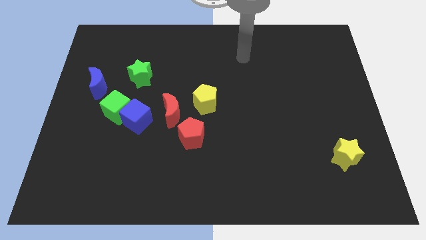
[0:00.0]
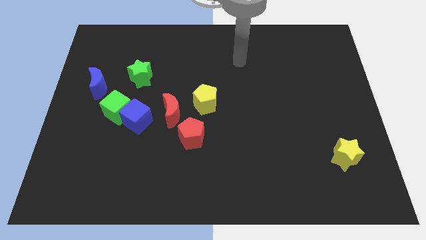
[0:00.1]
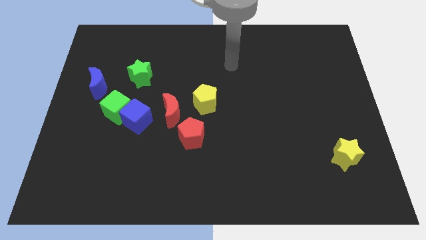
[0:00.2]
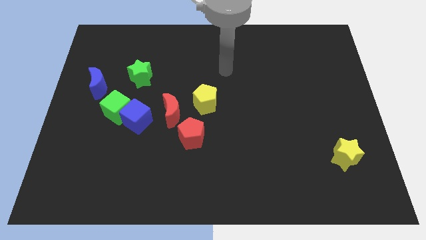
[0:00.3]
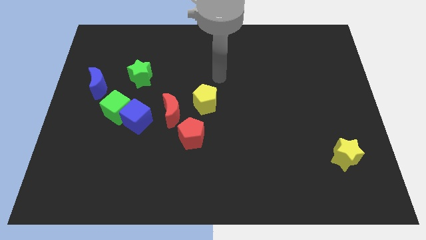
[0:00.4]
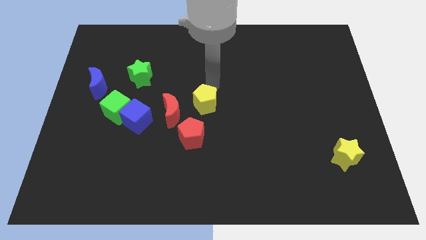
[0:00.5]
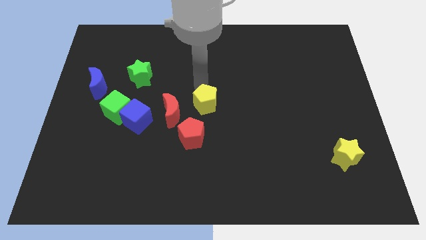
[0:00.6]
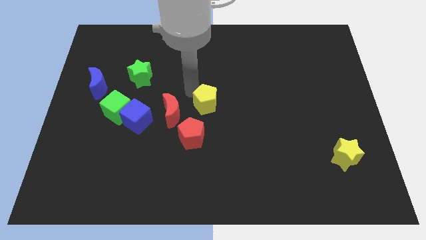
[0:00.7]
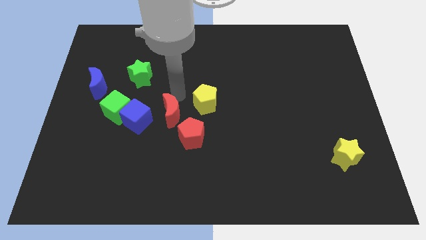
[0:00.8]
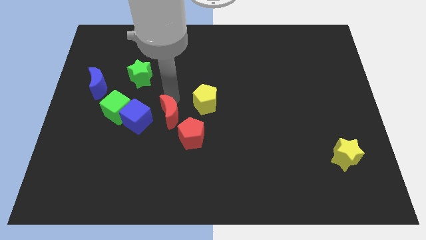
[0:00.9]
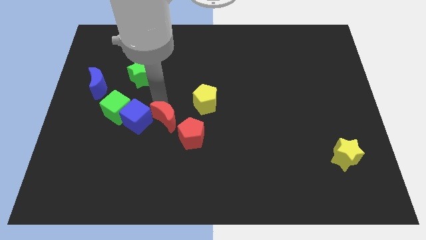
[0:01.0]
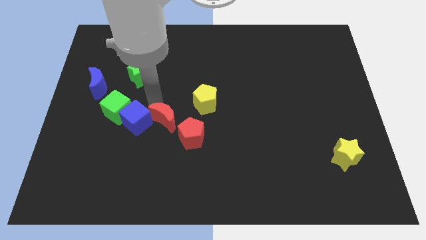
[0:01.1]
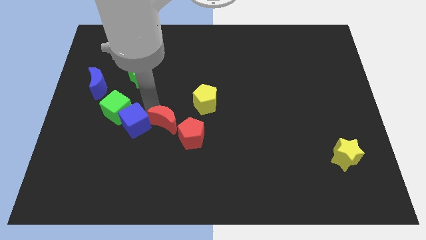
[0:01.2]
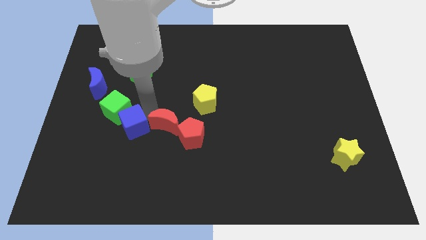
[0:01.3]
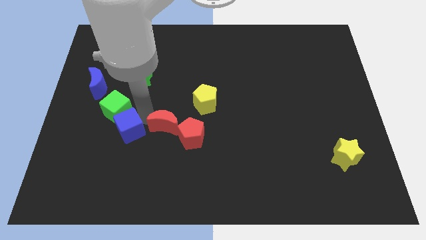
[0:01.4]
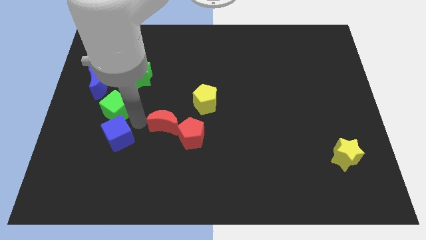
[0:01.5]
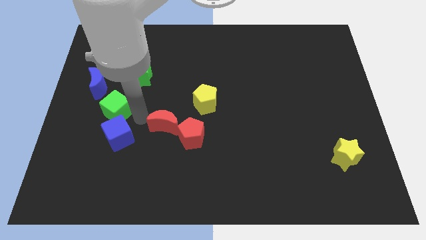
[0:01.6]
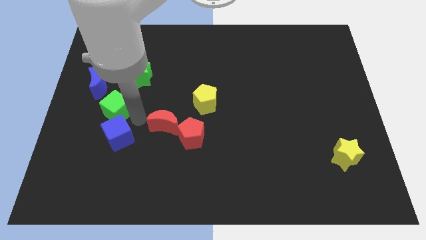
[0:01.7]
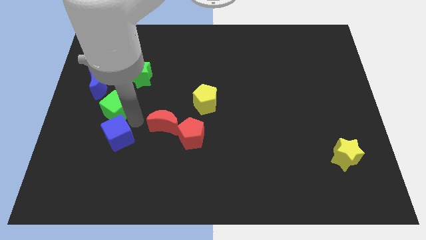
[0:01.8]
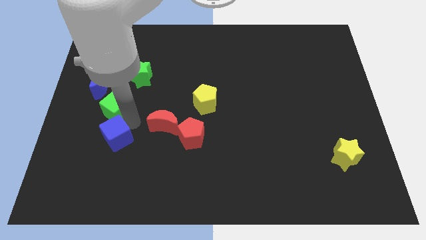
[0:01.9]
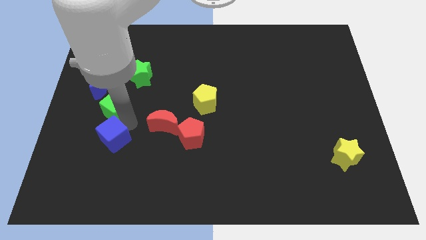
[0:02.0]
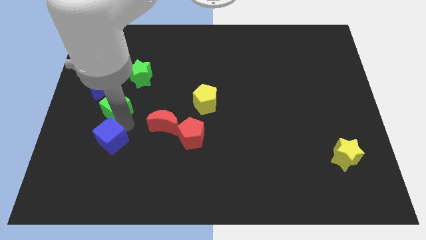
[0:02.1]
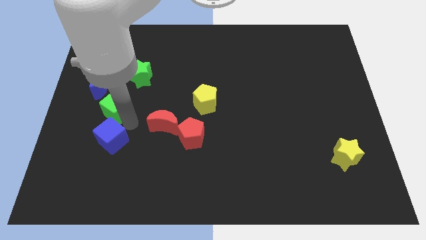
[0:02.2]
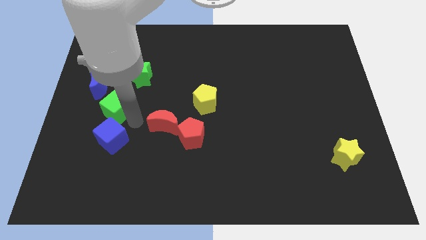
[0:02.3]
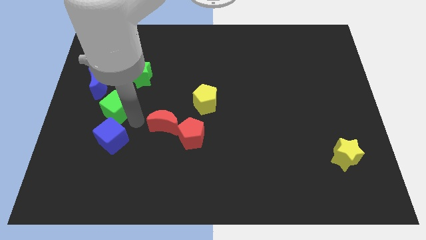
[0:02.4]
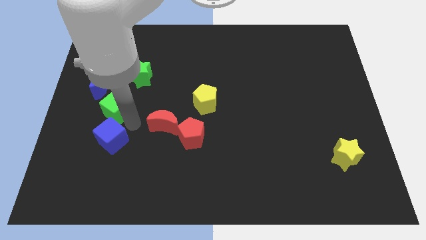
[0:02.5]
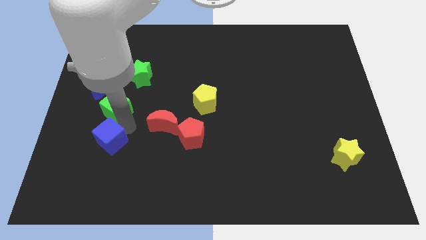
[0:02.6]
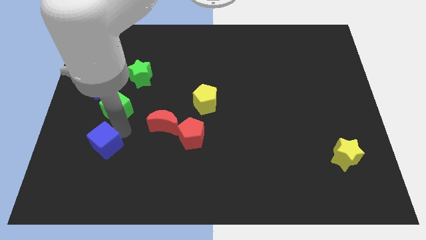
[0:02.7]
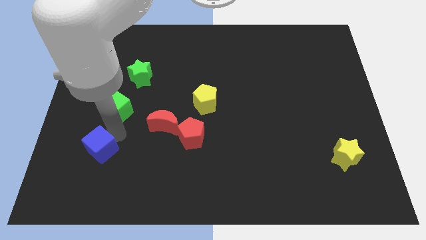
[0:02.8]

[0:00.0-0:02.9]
separate the blue cube from the green cube and red moon

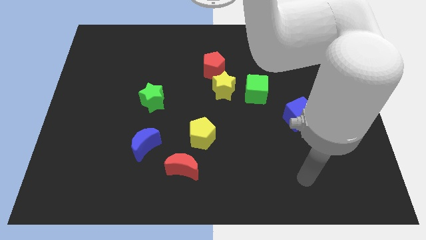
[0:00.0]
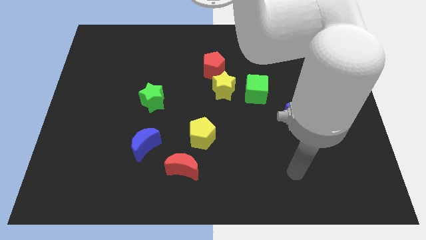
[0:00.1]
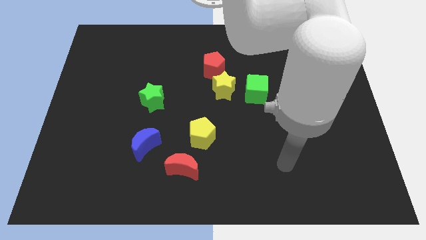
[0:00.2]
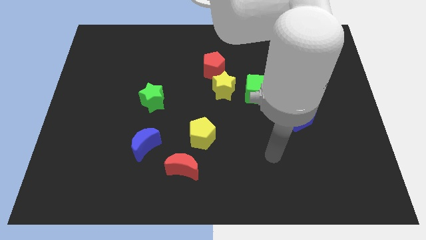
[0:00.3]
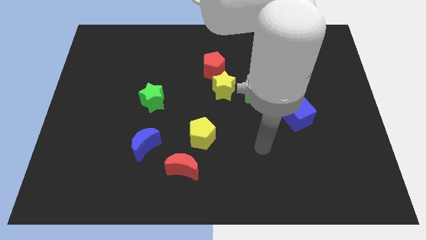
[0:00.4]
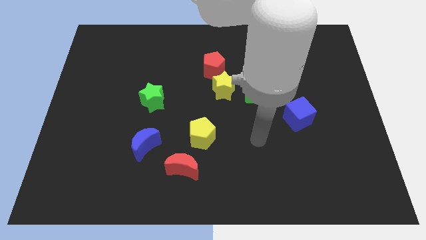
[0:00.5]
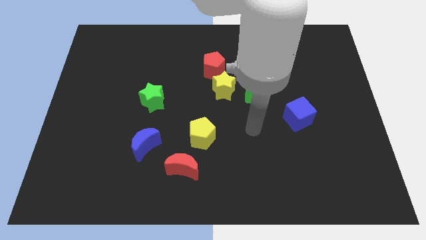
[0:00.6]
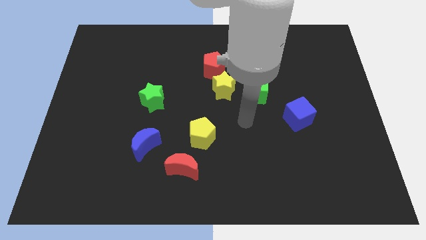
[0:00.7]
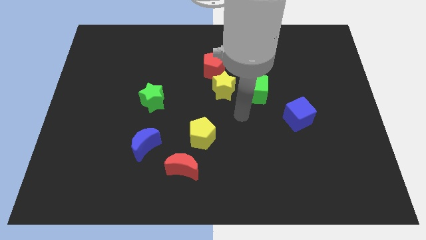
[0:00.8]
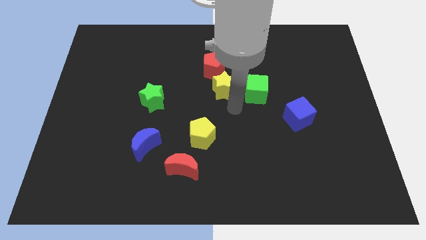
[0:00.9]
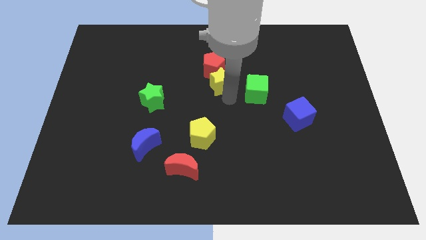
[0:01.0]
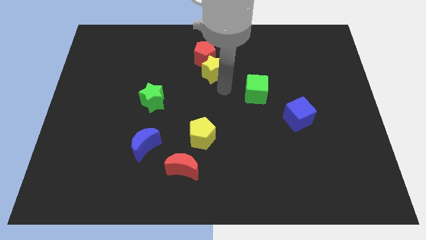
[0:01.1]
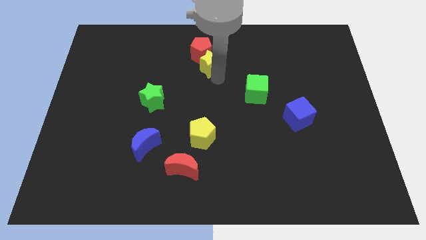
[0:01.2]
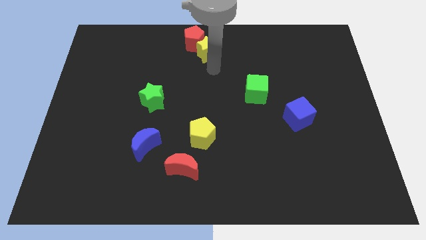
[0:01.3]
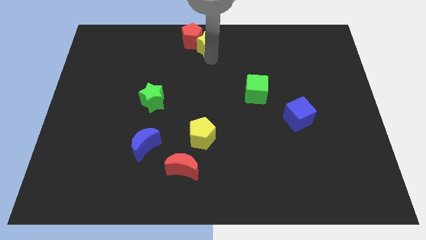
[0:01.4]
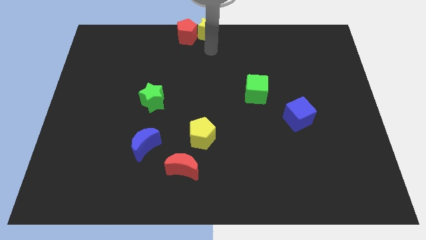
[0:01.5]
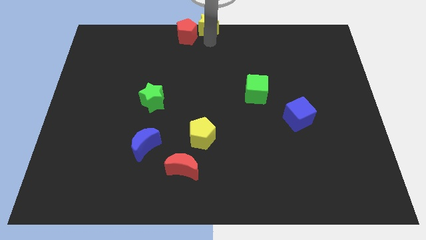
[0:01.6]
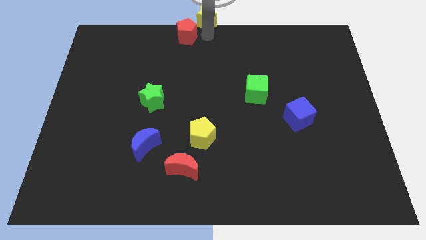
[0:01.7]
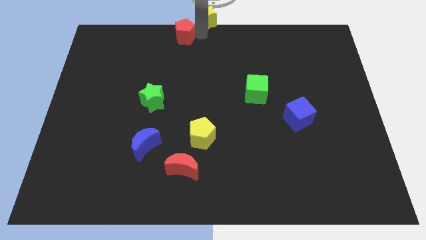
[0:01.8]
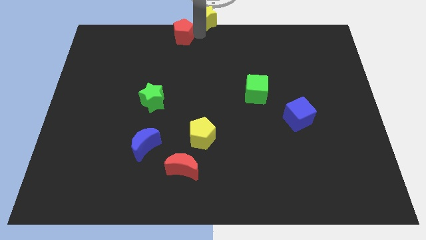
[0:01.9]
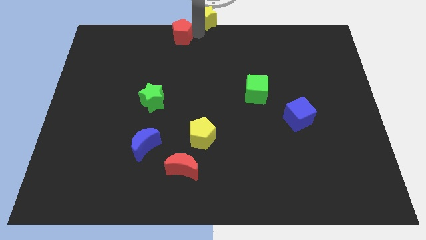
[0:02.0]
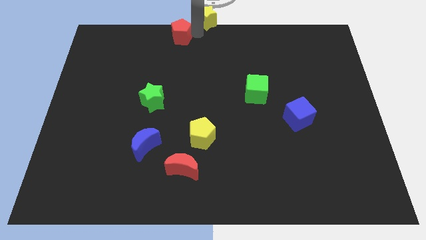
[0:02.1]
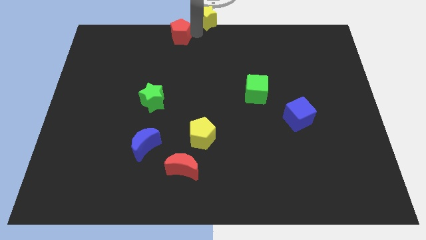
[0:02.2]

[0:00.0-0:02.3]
move the red pentagon away from the yellow star

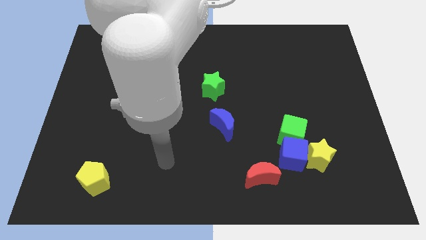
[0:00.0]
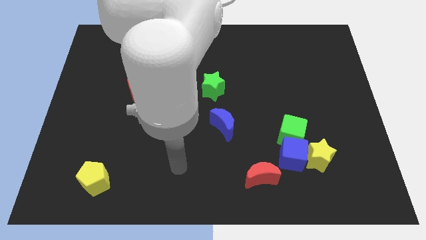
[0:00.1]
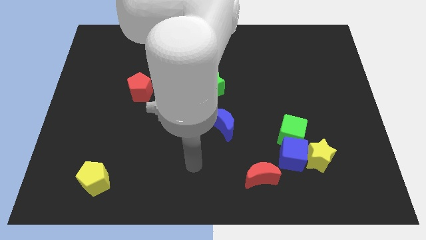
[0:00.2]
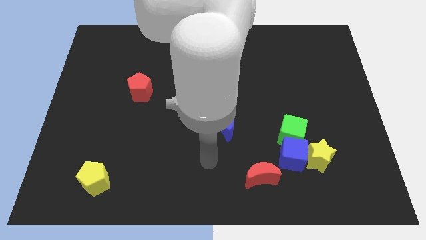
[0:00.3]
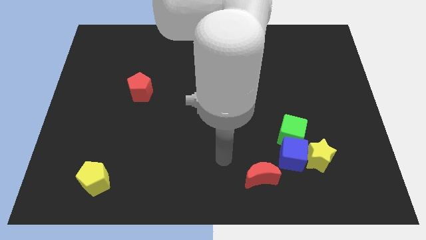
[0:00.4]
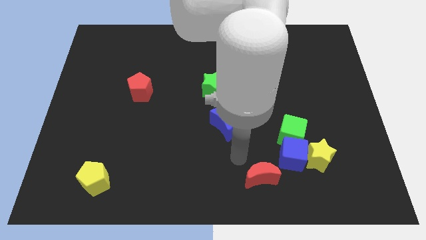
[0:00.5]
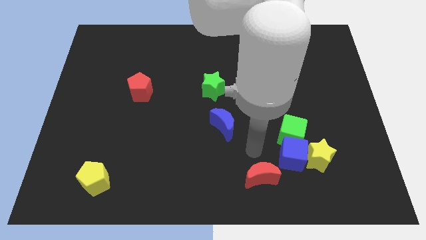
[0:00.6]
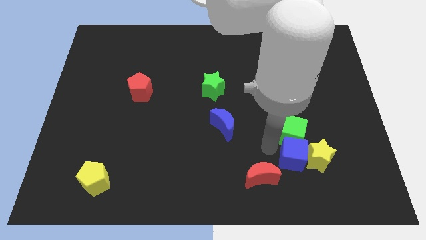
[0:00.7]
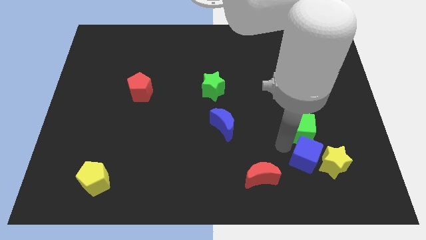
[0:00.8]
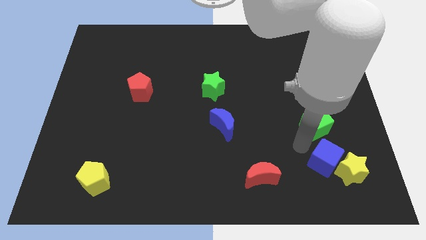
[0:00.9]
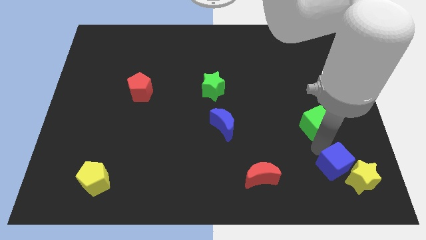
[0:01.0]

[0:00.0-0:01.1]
separate the yellow star from the blue cube and green cube

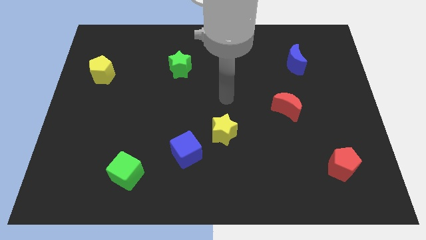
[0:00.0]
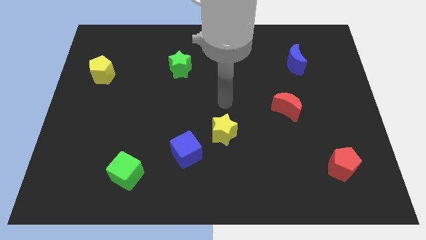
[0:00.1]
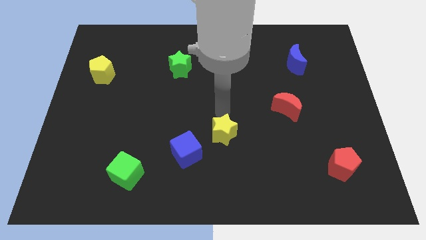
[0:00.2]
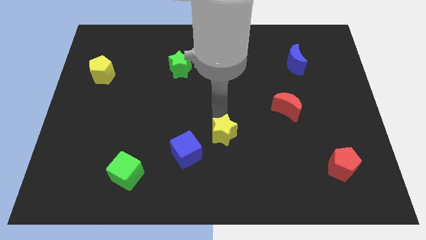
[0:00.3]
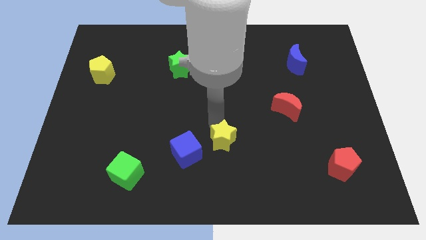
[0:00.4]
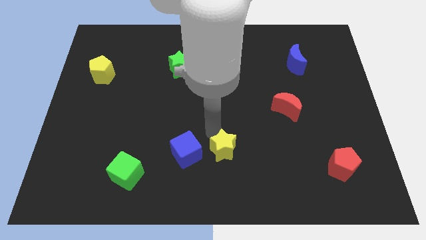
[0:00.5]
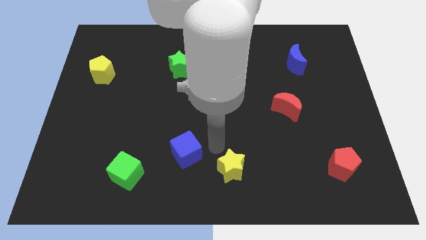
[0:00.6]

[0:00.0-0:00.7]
pull the blue cube apart from the yellow star

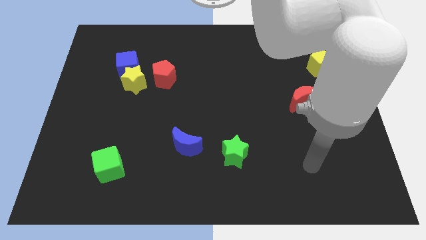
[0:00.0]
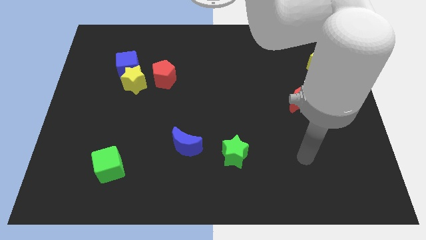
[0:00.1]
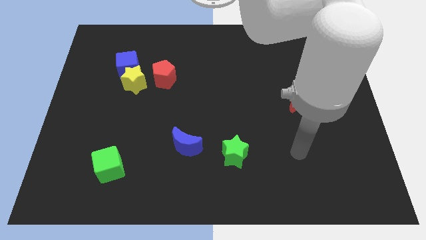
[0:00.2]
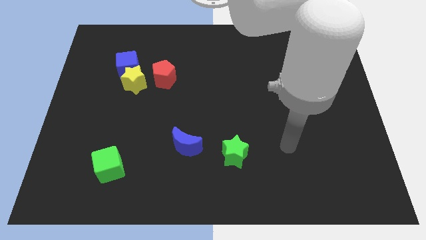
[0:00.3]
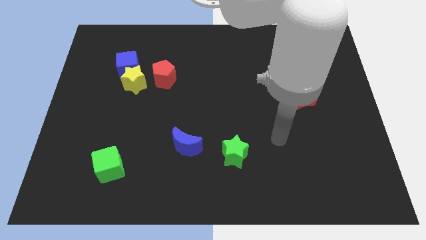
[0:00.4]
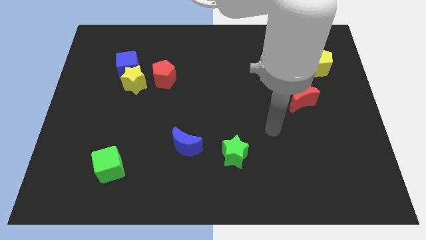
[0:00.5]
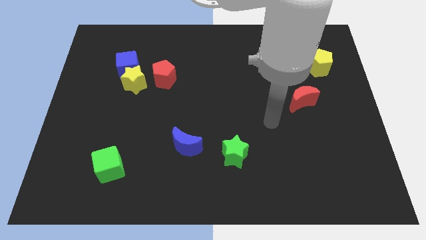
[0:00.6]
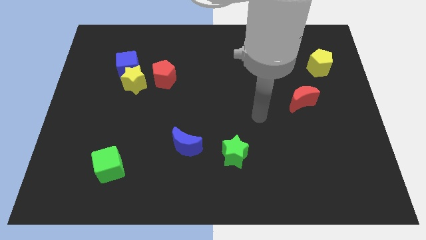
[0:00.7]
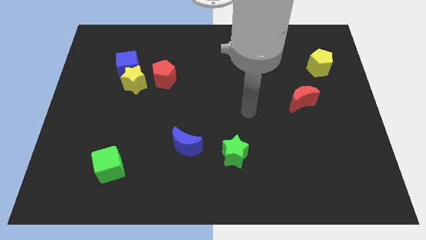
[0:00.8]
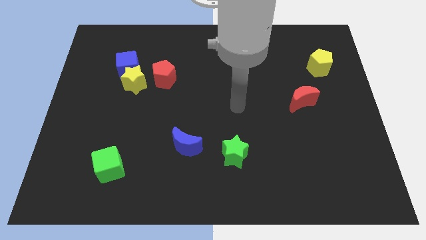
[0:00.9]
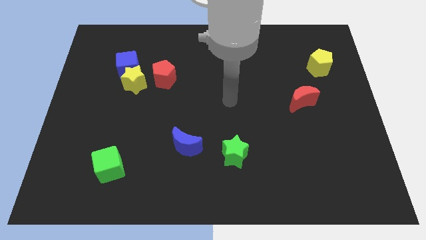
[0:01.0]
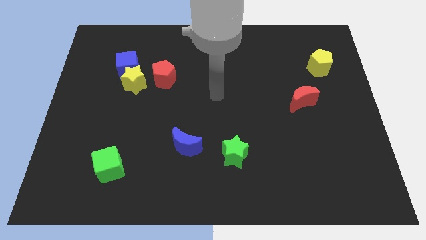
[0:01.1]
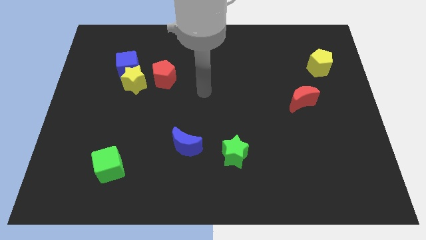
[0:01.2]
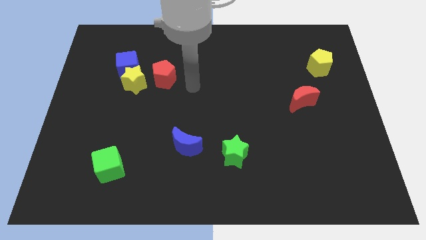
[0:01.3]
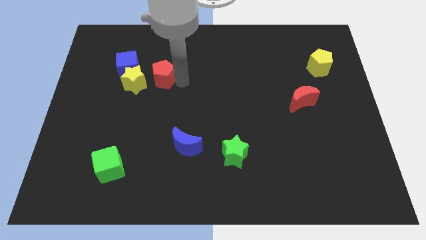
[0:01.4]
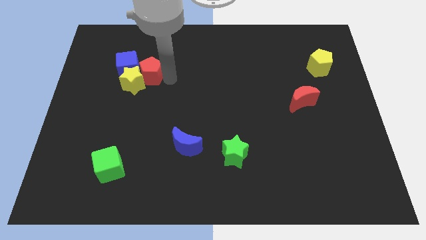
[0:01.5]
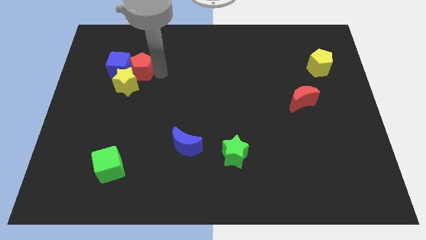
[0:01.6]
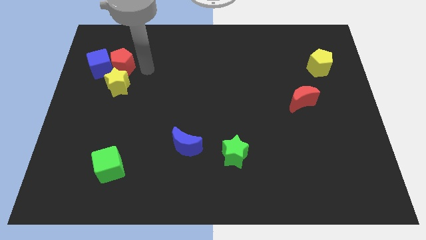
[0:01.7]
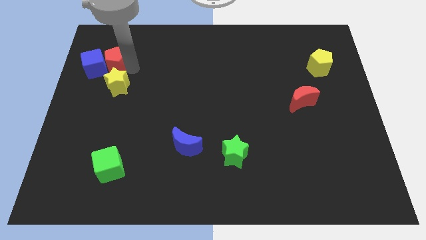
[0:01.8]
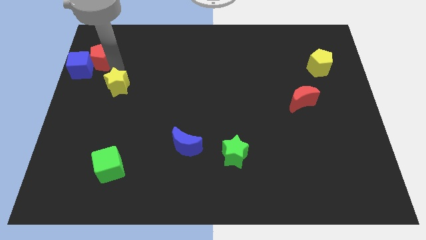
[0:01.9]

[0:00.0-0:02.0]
move the yellow star away from the blue cube and red pentagon

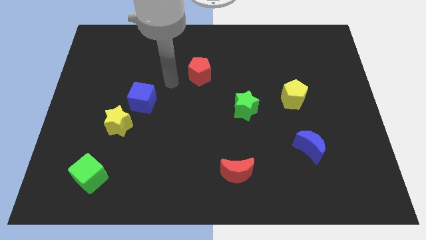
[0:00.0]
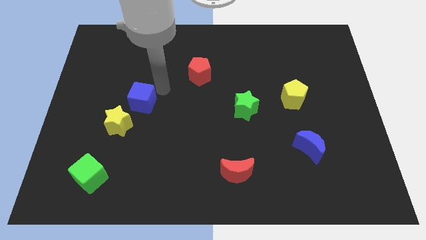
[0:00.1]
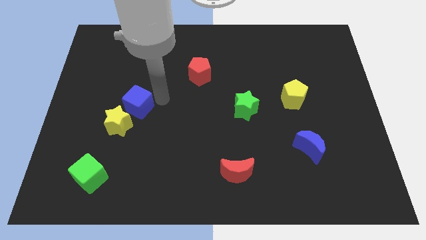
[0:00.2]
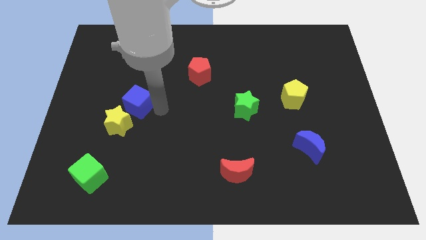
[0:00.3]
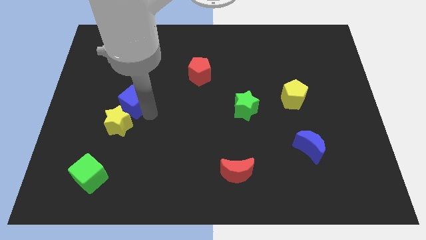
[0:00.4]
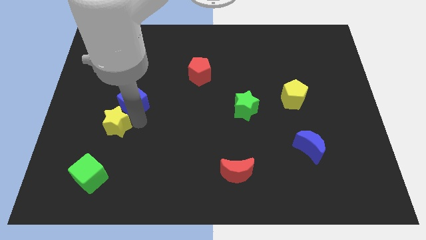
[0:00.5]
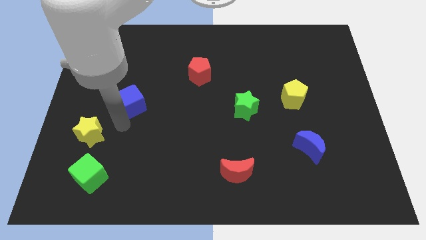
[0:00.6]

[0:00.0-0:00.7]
separate the blue cube from the yellow star
